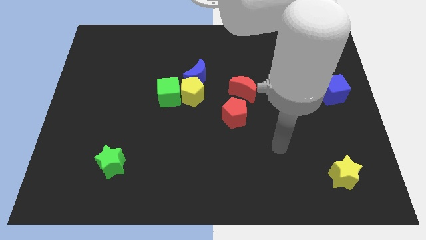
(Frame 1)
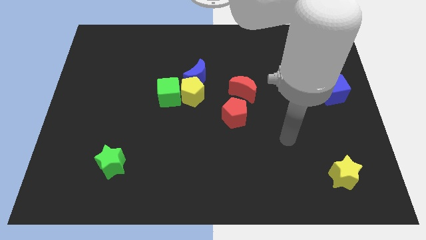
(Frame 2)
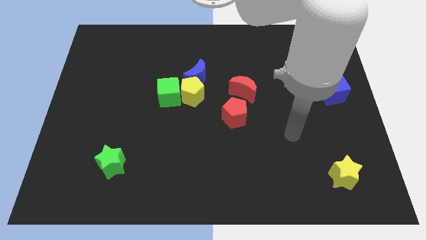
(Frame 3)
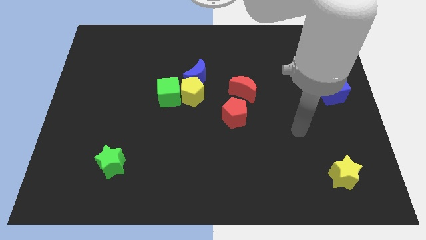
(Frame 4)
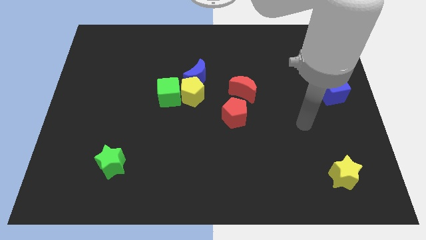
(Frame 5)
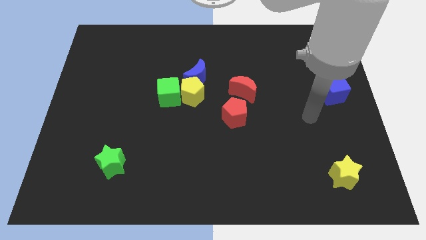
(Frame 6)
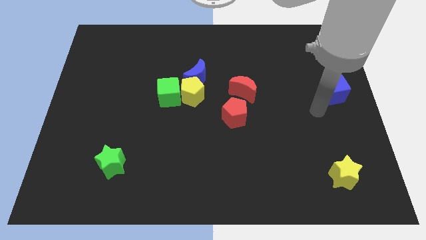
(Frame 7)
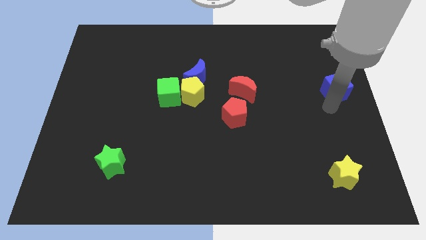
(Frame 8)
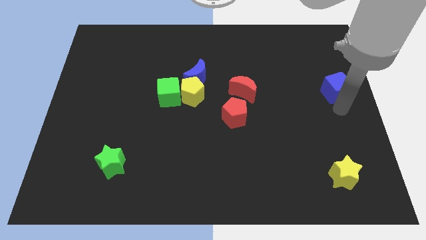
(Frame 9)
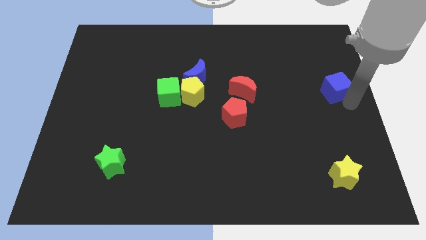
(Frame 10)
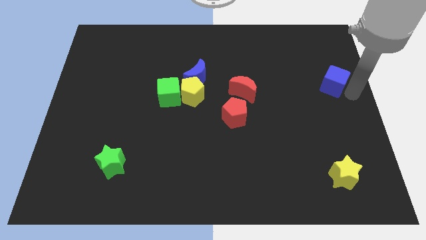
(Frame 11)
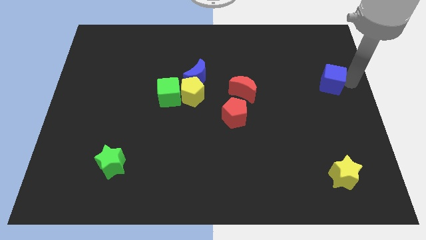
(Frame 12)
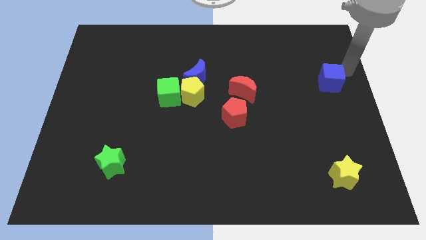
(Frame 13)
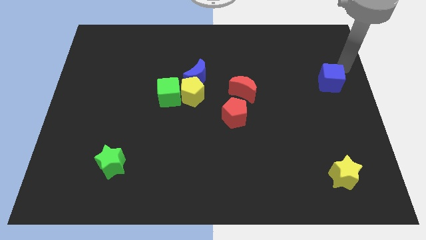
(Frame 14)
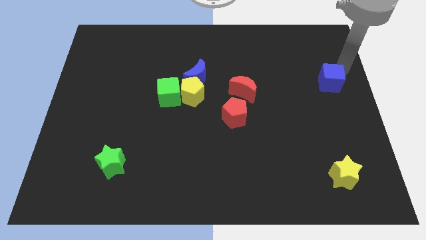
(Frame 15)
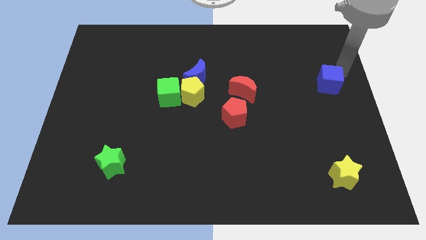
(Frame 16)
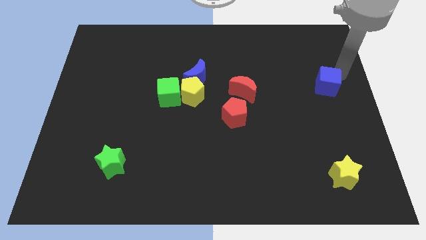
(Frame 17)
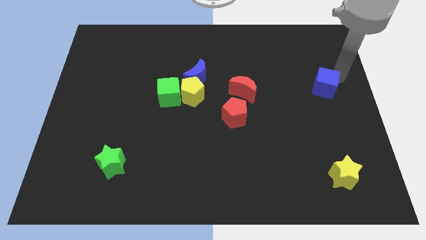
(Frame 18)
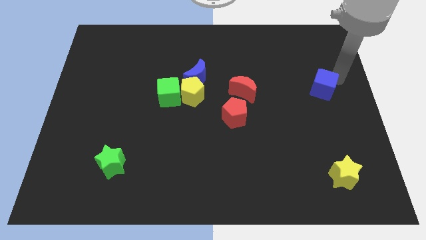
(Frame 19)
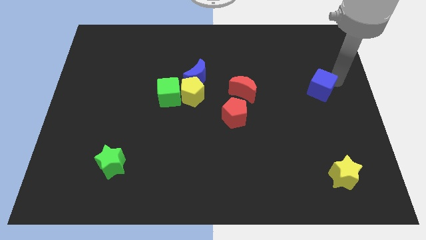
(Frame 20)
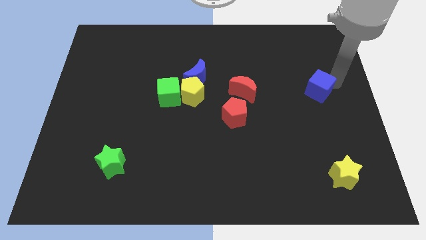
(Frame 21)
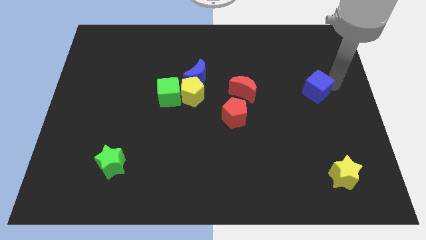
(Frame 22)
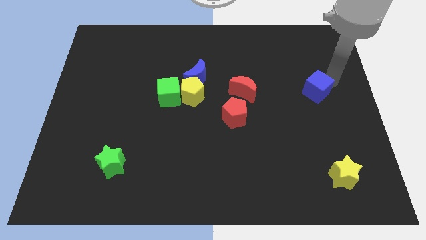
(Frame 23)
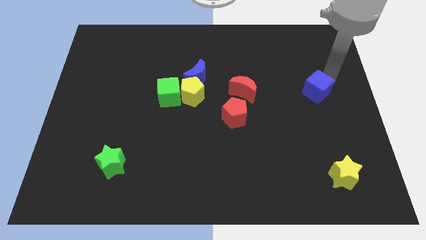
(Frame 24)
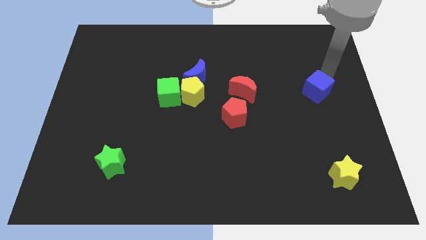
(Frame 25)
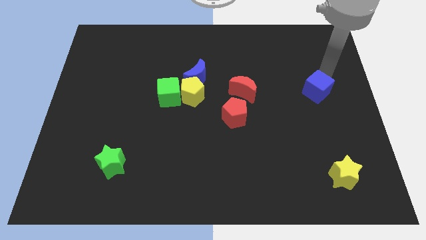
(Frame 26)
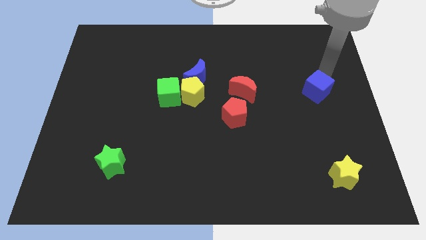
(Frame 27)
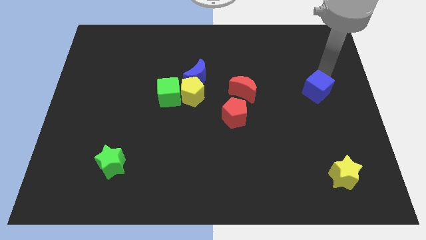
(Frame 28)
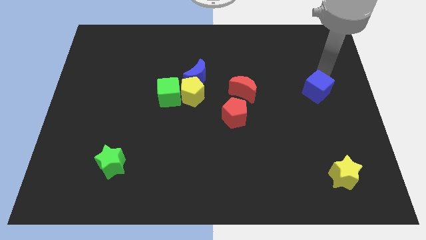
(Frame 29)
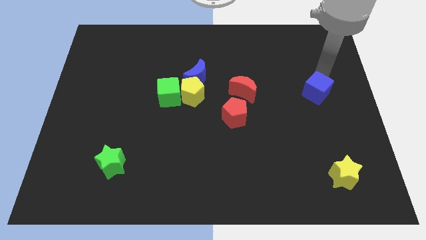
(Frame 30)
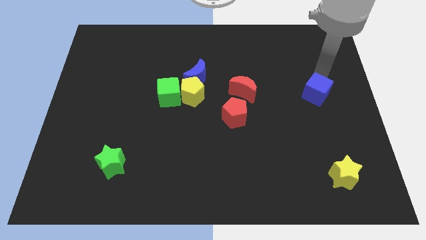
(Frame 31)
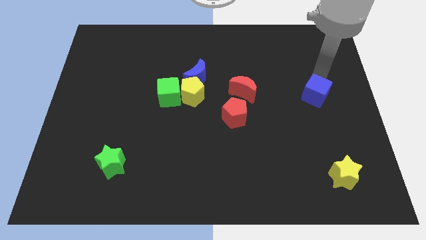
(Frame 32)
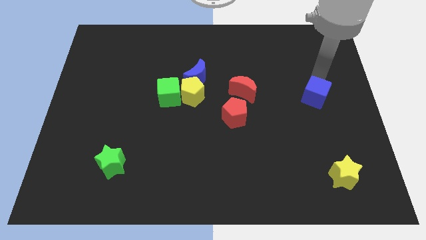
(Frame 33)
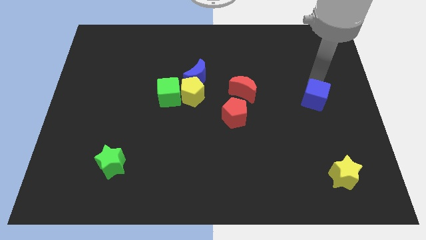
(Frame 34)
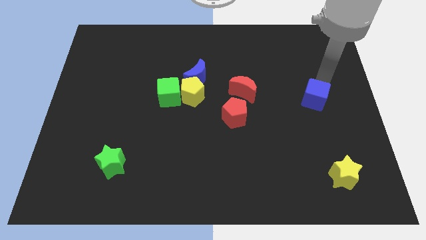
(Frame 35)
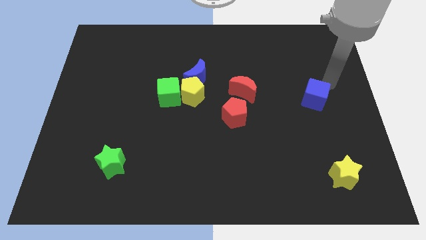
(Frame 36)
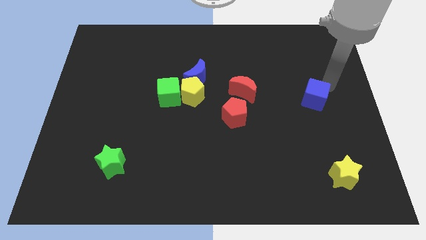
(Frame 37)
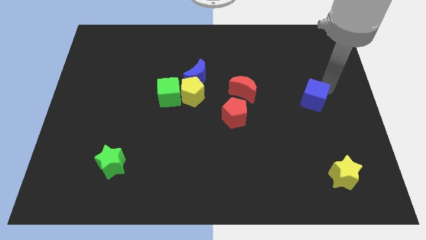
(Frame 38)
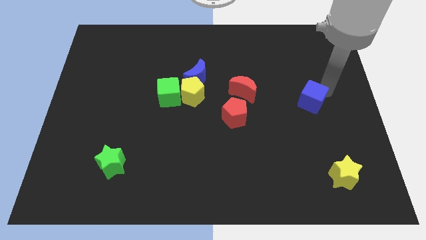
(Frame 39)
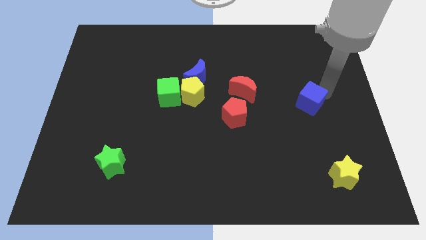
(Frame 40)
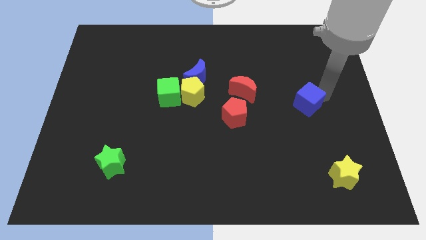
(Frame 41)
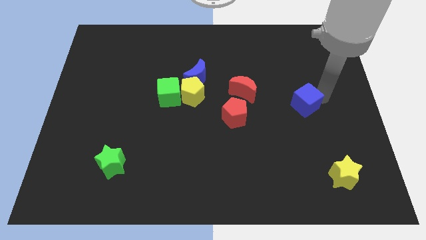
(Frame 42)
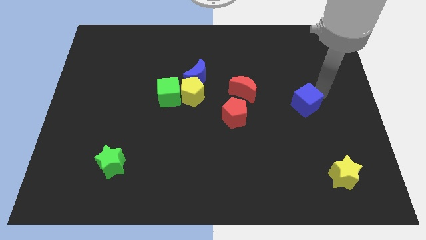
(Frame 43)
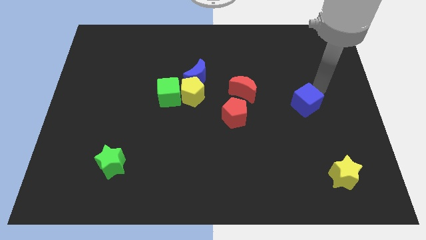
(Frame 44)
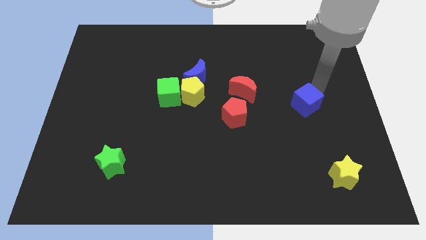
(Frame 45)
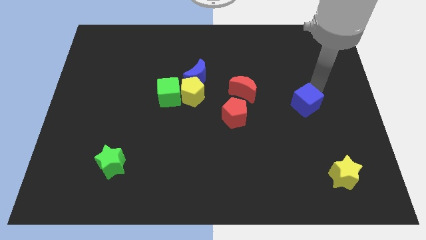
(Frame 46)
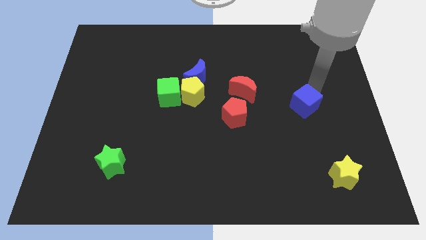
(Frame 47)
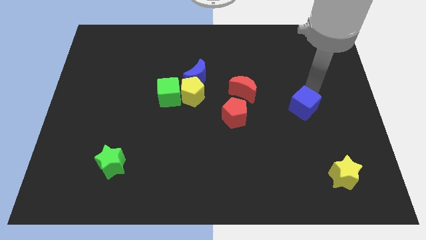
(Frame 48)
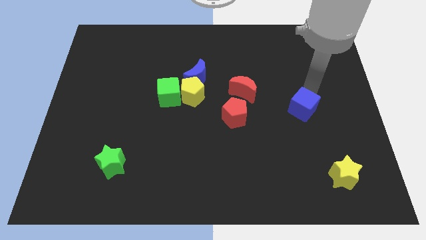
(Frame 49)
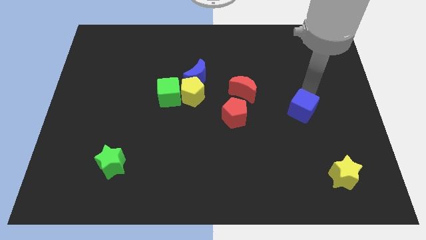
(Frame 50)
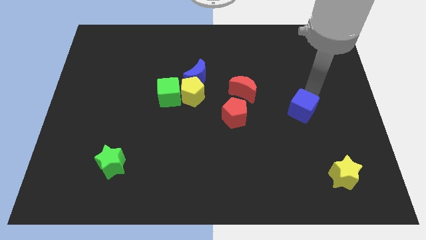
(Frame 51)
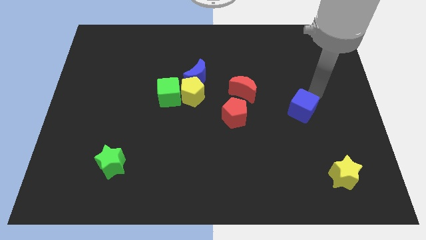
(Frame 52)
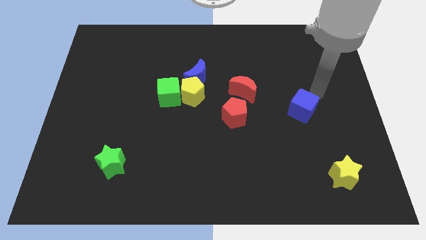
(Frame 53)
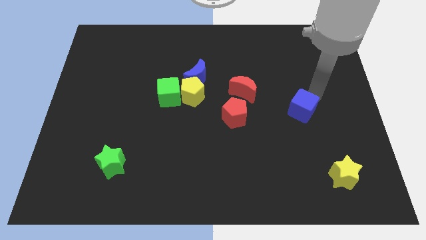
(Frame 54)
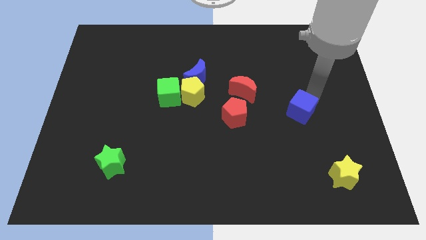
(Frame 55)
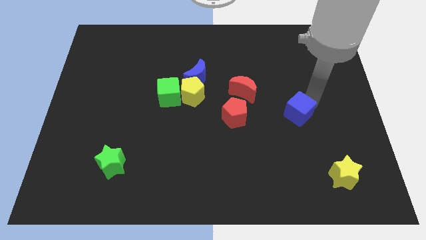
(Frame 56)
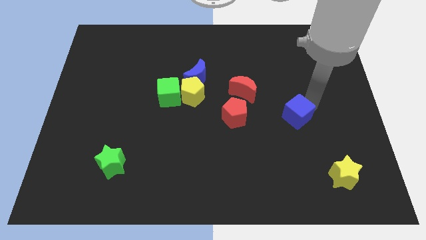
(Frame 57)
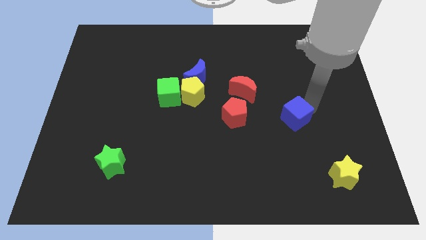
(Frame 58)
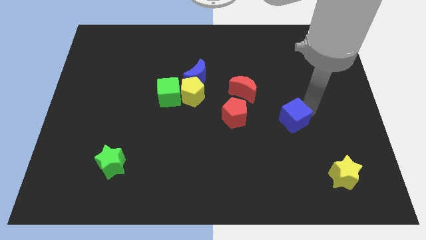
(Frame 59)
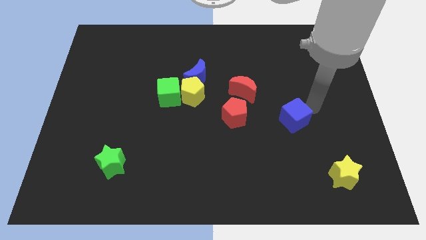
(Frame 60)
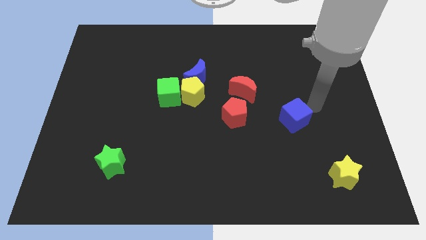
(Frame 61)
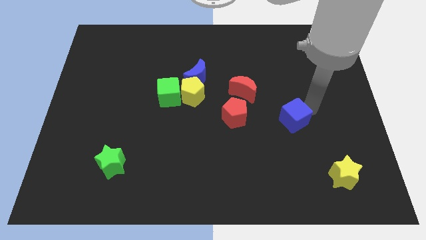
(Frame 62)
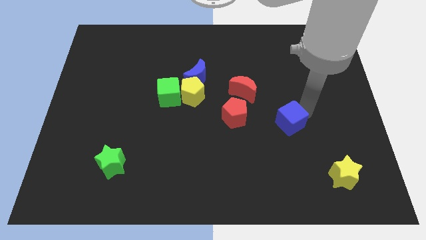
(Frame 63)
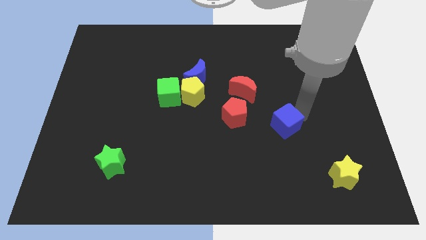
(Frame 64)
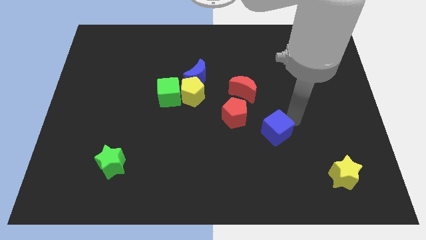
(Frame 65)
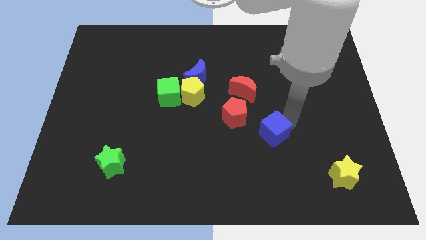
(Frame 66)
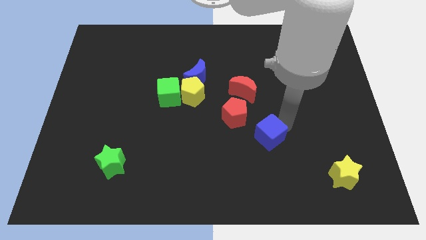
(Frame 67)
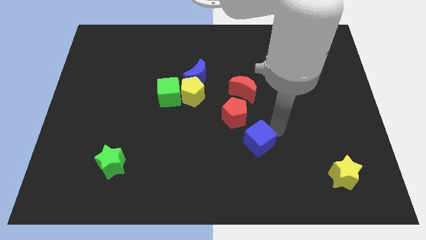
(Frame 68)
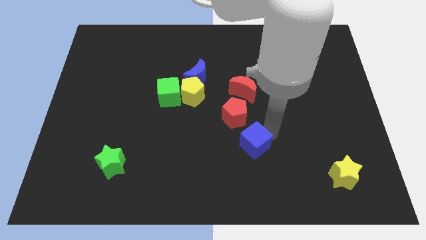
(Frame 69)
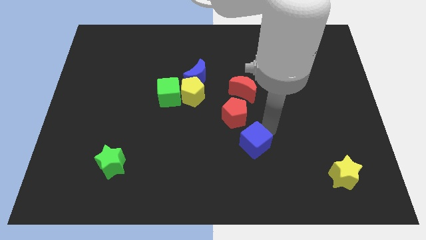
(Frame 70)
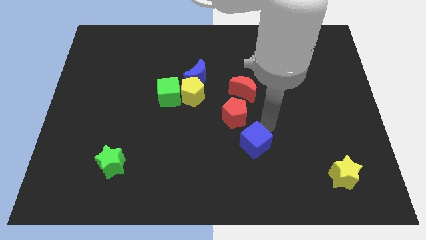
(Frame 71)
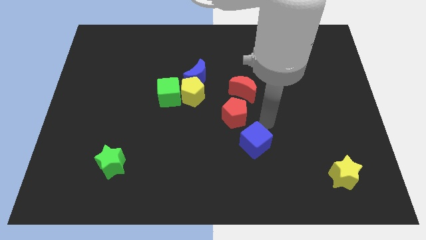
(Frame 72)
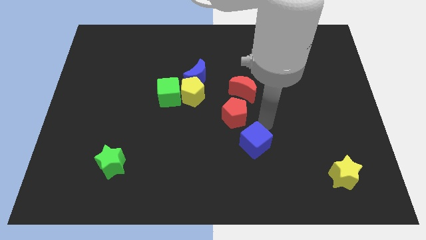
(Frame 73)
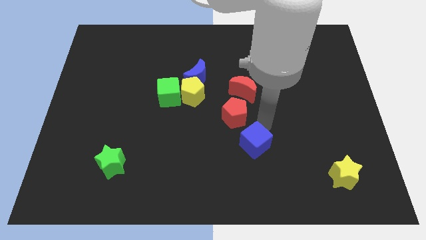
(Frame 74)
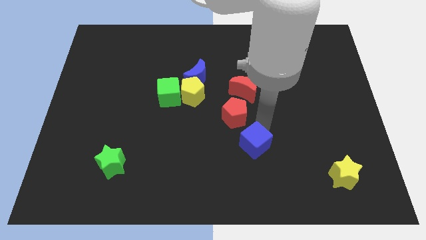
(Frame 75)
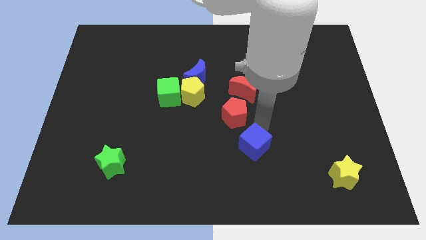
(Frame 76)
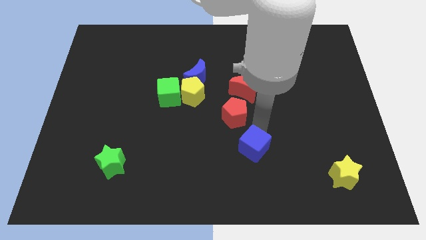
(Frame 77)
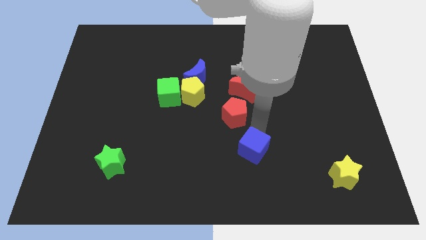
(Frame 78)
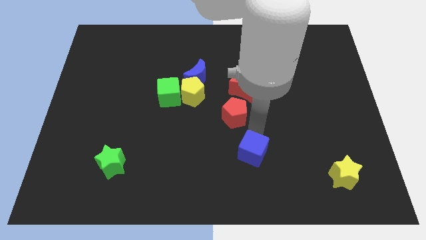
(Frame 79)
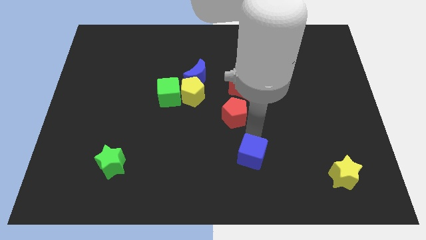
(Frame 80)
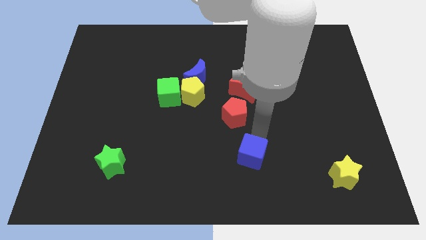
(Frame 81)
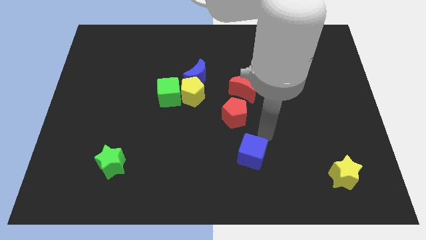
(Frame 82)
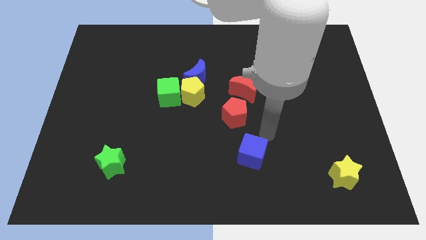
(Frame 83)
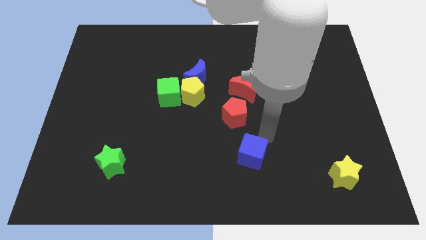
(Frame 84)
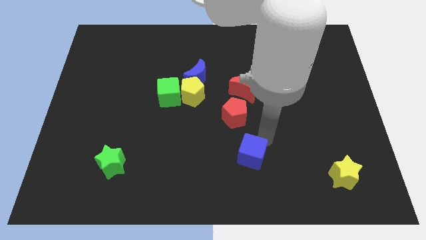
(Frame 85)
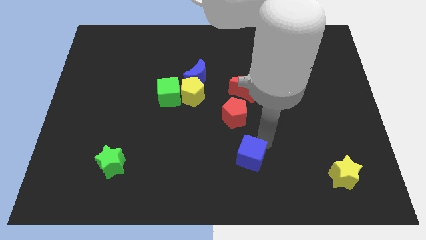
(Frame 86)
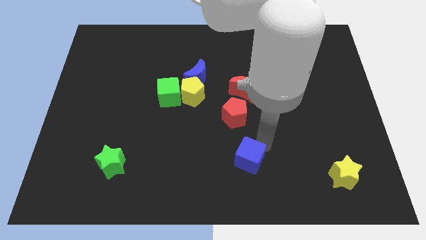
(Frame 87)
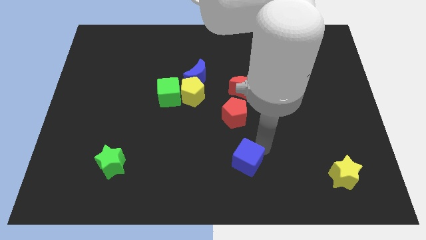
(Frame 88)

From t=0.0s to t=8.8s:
move the blue cube to the bottom side
